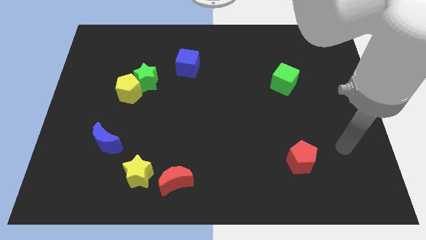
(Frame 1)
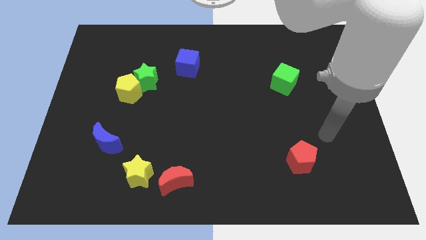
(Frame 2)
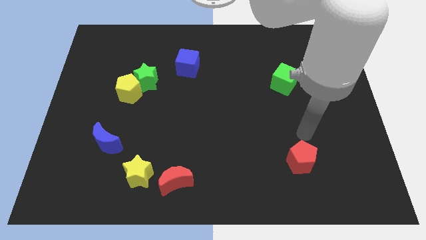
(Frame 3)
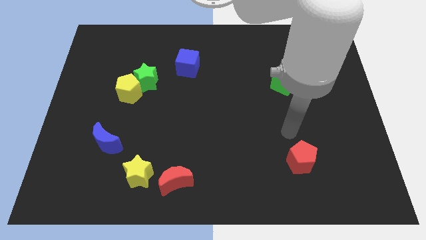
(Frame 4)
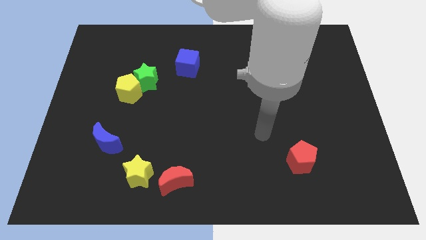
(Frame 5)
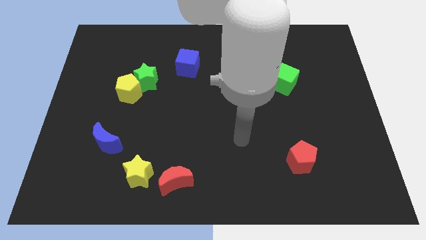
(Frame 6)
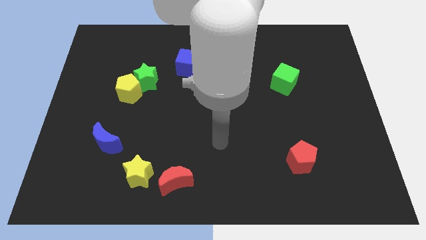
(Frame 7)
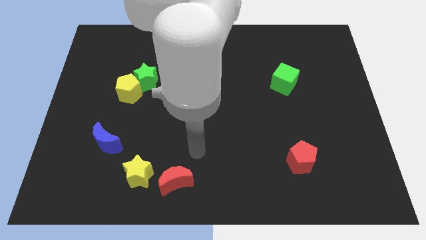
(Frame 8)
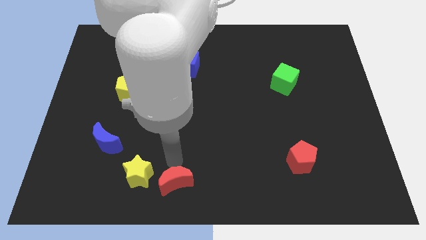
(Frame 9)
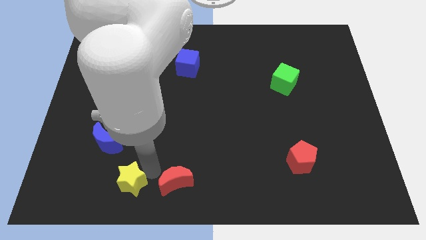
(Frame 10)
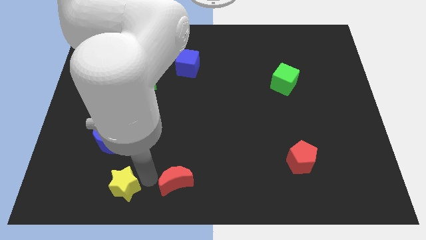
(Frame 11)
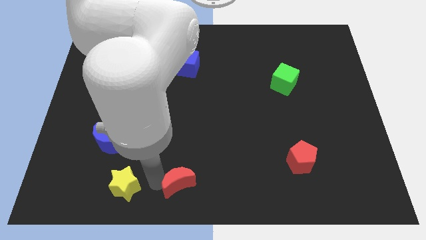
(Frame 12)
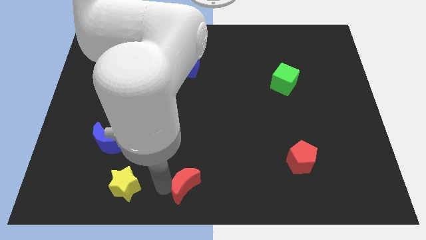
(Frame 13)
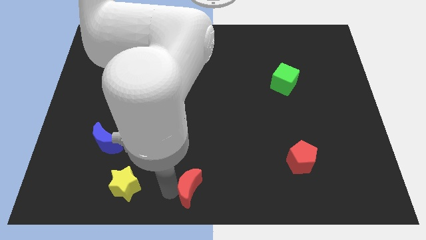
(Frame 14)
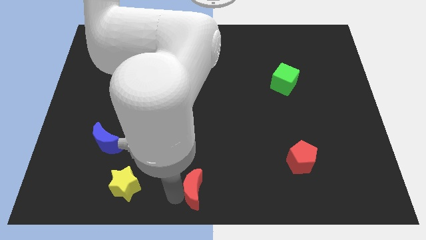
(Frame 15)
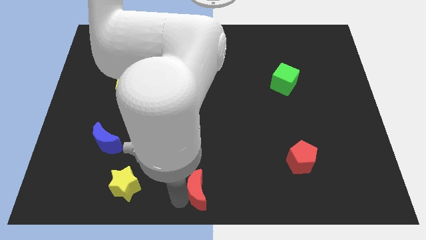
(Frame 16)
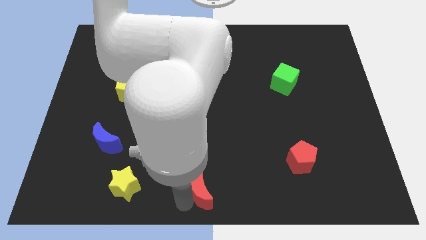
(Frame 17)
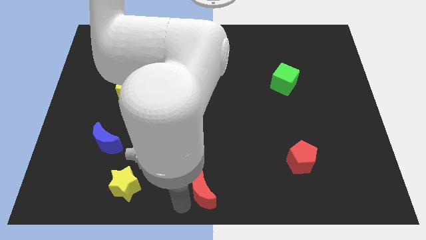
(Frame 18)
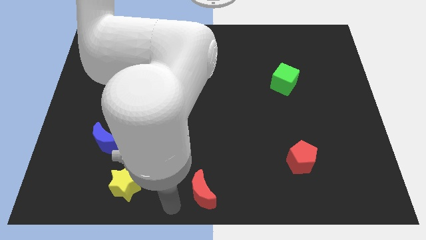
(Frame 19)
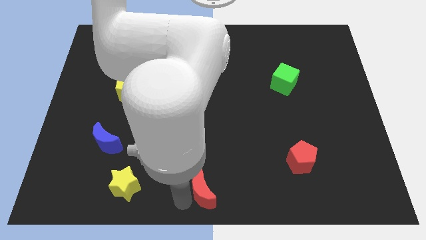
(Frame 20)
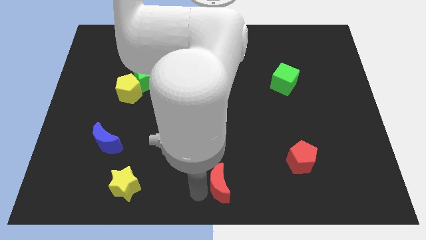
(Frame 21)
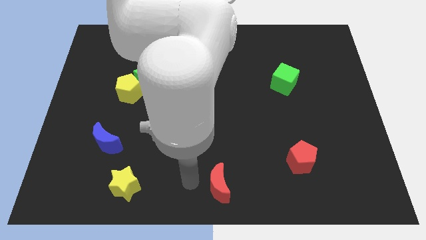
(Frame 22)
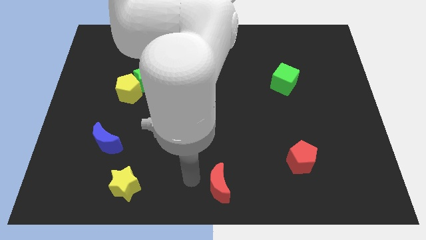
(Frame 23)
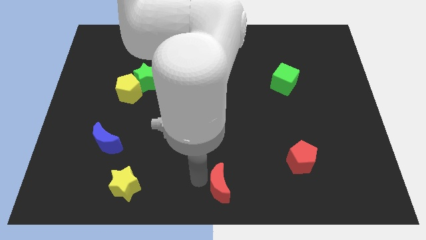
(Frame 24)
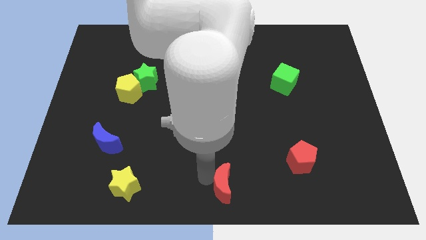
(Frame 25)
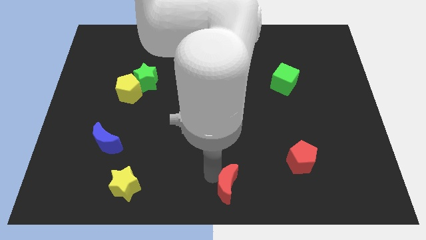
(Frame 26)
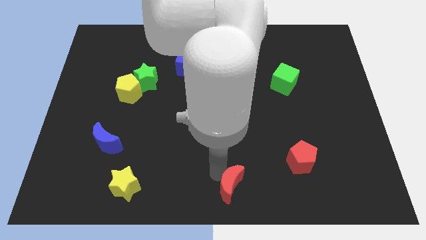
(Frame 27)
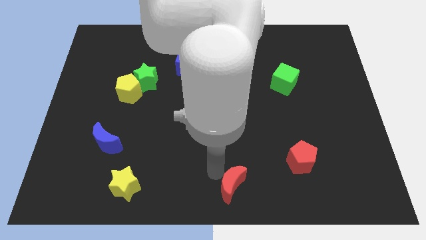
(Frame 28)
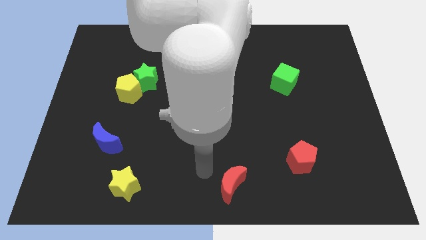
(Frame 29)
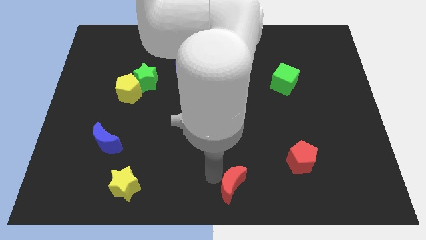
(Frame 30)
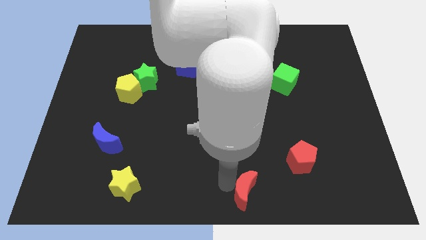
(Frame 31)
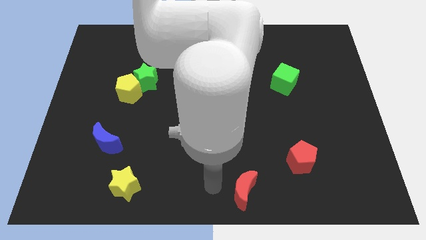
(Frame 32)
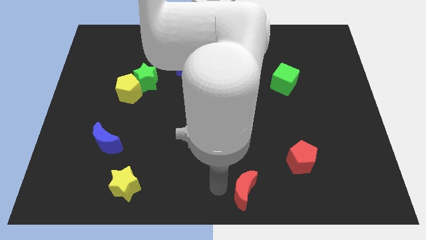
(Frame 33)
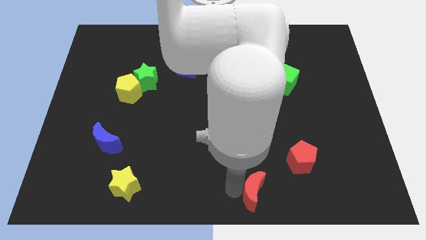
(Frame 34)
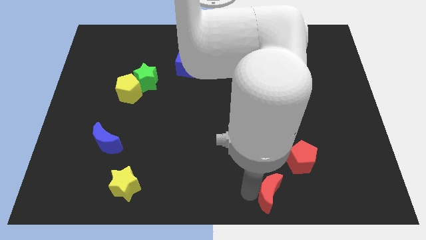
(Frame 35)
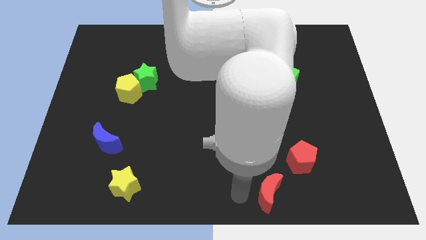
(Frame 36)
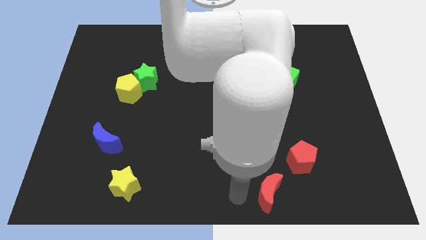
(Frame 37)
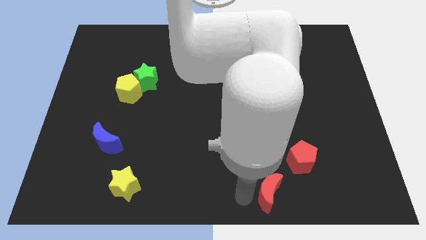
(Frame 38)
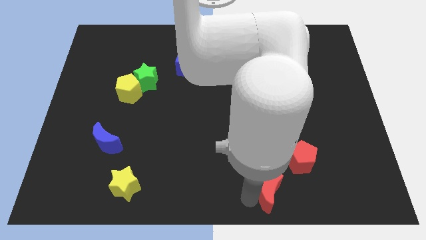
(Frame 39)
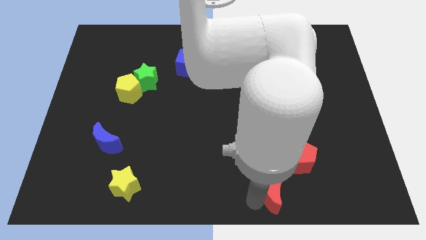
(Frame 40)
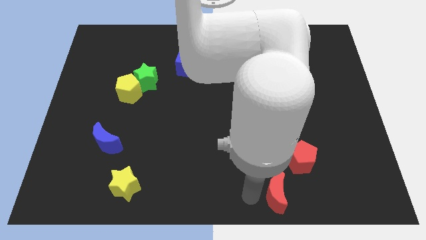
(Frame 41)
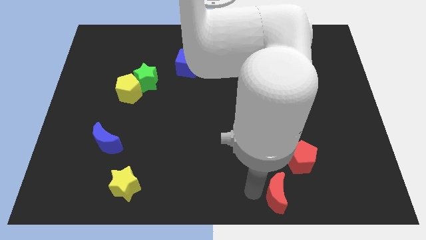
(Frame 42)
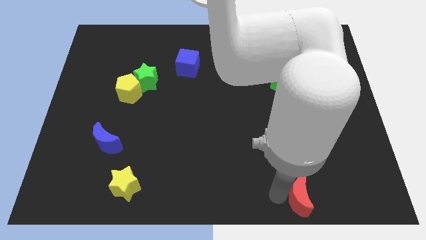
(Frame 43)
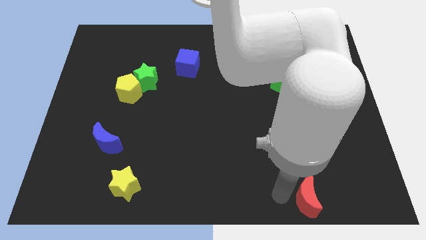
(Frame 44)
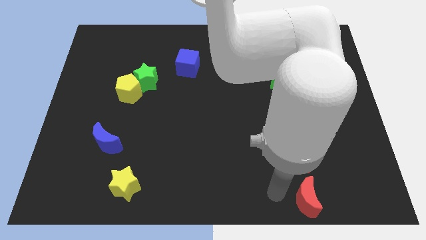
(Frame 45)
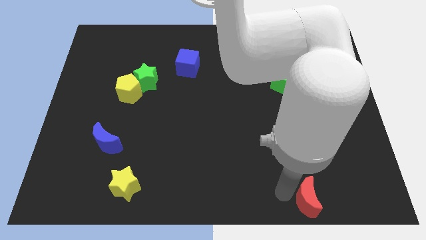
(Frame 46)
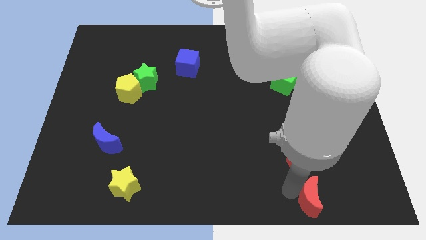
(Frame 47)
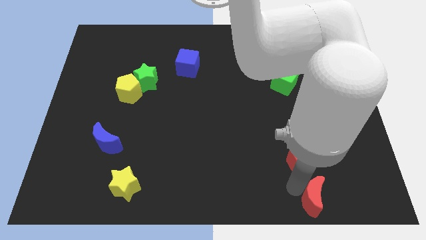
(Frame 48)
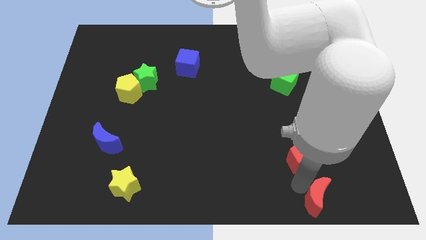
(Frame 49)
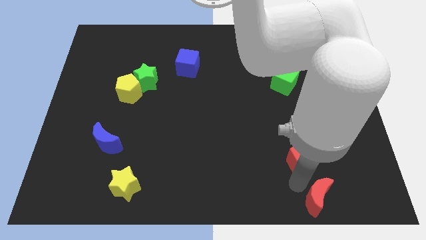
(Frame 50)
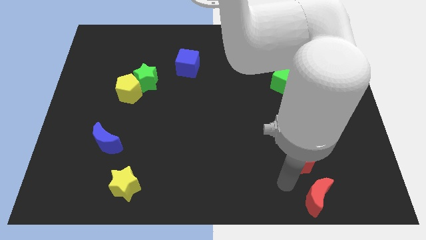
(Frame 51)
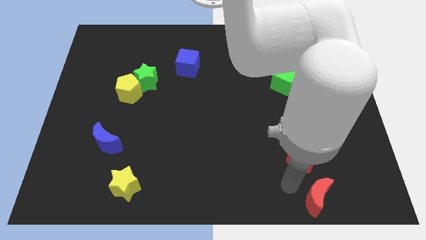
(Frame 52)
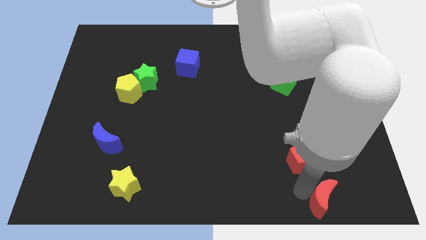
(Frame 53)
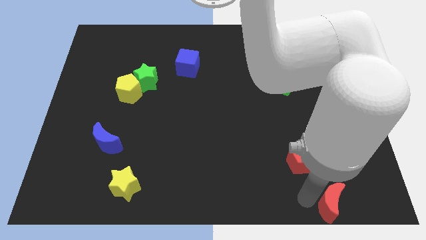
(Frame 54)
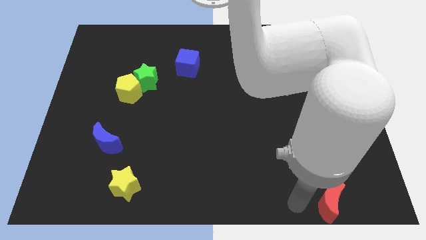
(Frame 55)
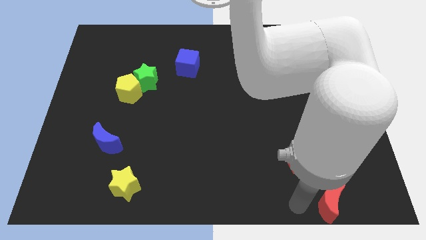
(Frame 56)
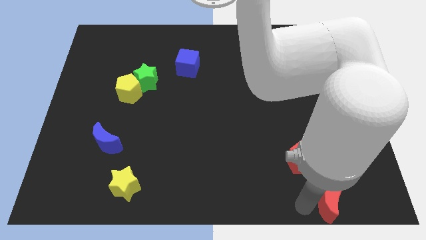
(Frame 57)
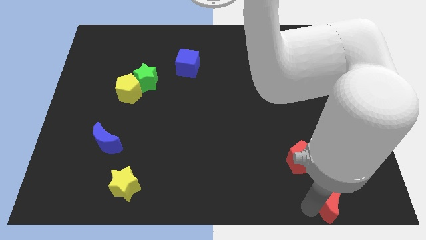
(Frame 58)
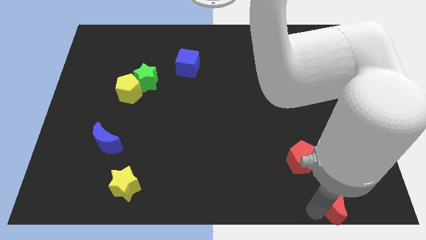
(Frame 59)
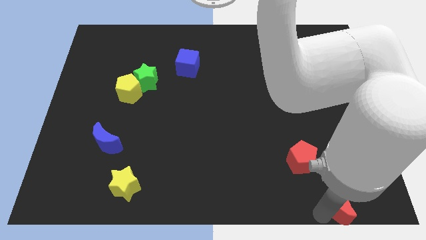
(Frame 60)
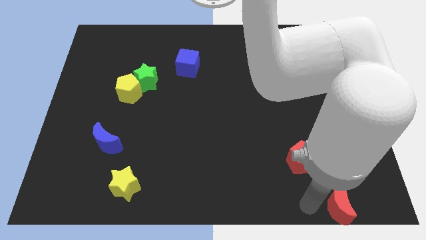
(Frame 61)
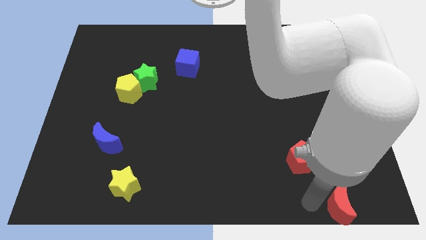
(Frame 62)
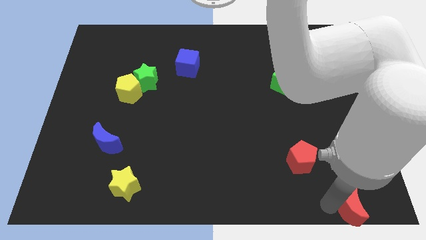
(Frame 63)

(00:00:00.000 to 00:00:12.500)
push the red moon to the bottom right corner

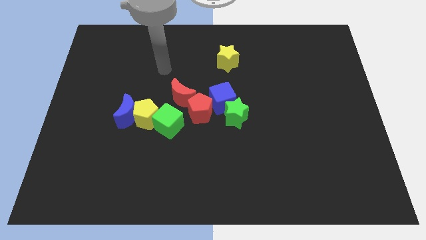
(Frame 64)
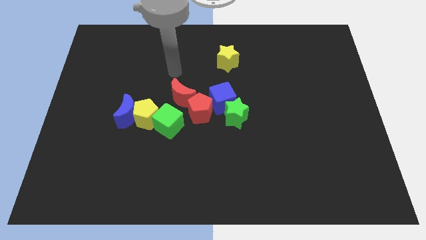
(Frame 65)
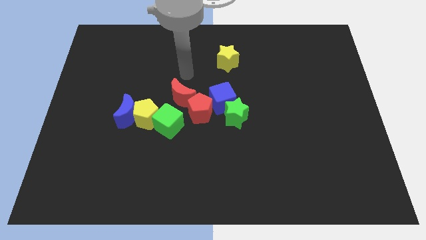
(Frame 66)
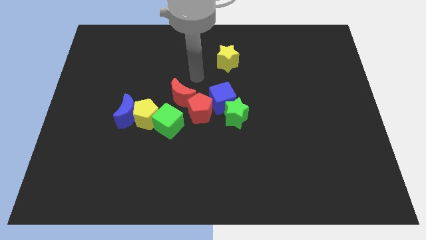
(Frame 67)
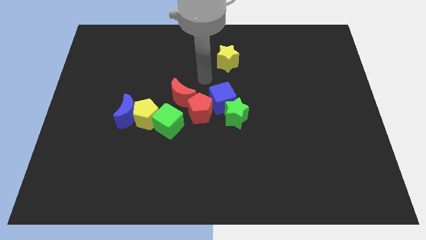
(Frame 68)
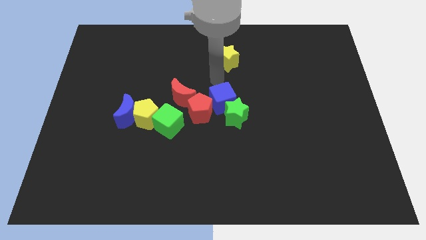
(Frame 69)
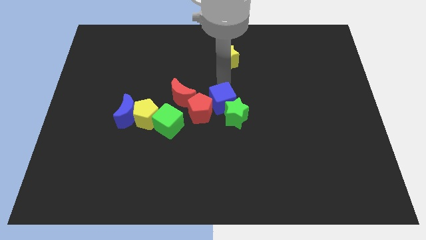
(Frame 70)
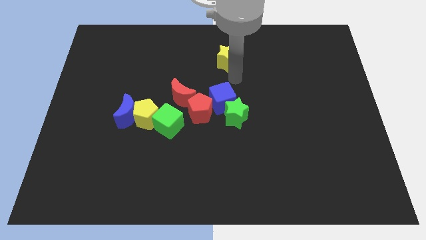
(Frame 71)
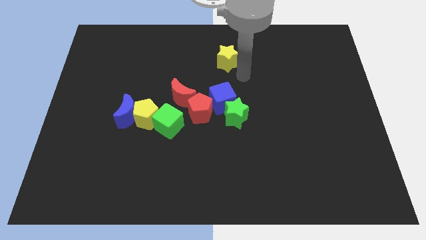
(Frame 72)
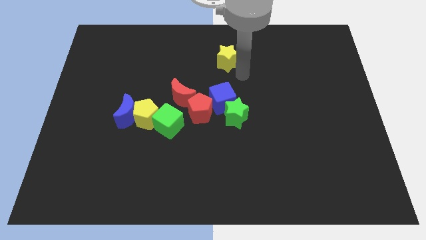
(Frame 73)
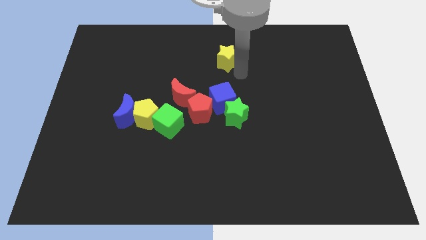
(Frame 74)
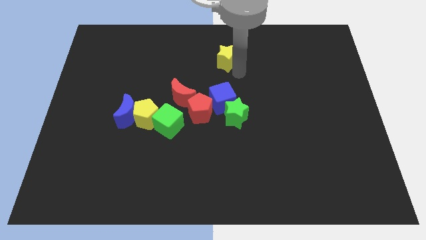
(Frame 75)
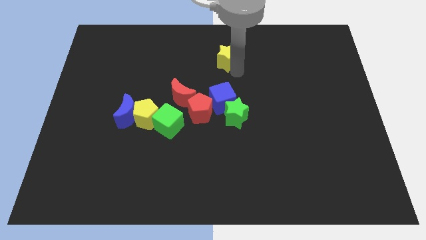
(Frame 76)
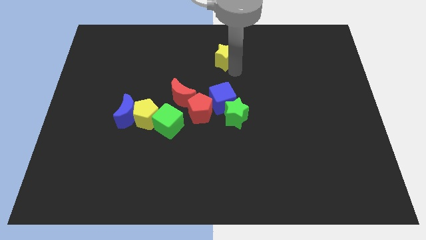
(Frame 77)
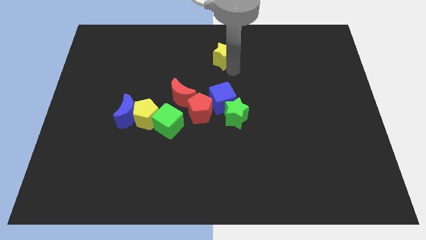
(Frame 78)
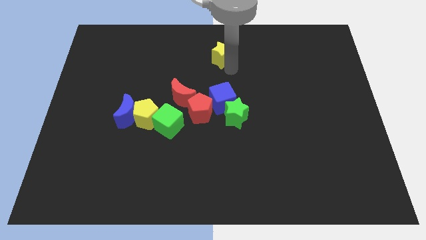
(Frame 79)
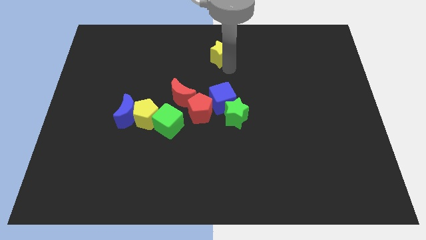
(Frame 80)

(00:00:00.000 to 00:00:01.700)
put the yellow star to the towards your base
